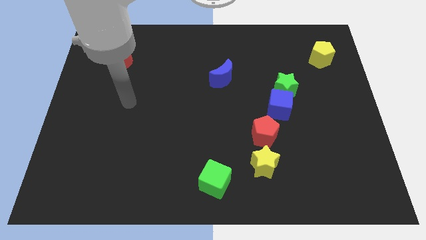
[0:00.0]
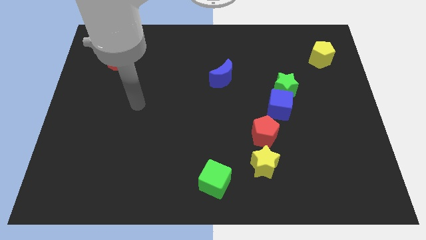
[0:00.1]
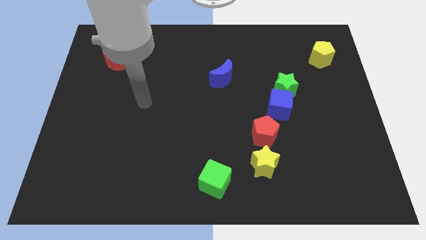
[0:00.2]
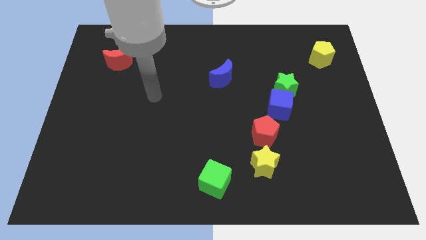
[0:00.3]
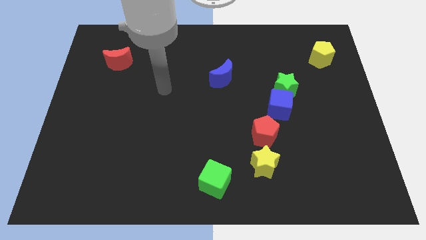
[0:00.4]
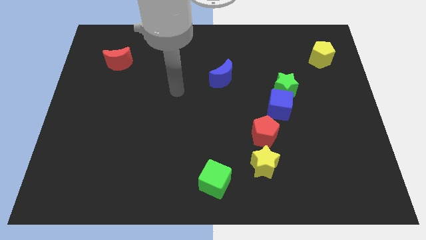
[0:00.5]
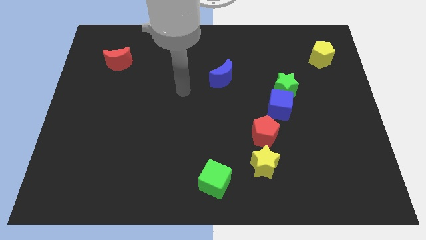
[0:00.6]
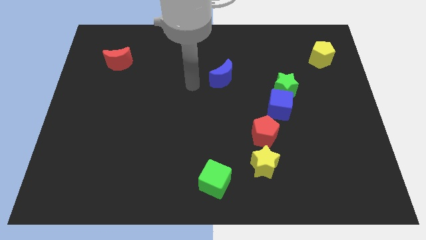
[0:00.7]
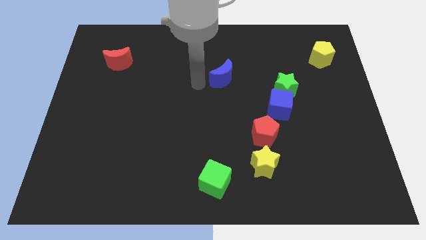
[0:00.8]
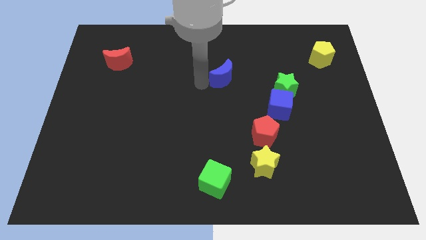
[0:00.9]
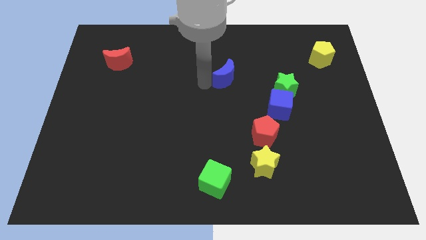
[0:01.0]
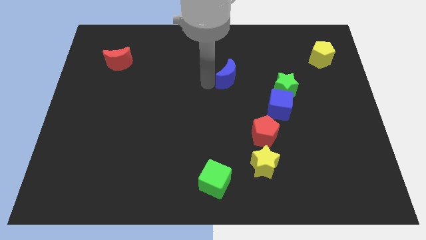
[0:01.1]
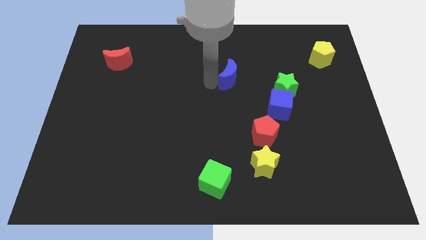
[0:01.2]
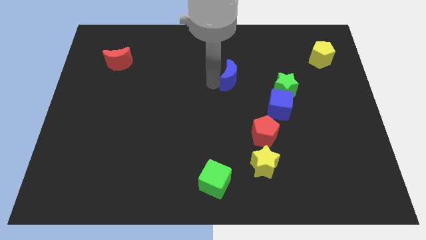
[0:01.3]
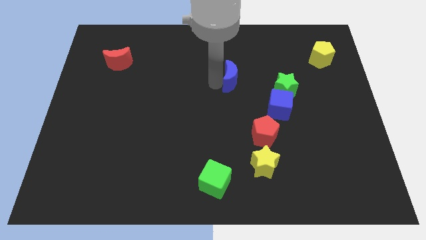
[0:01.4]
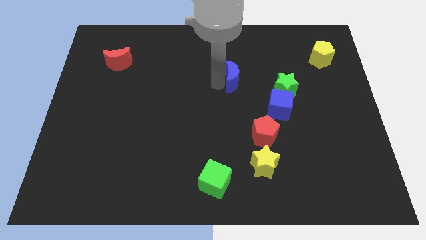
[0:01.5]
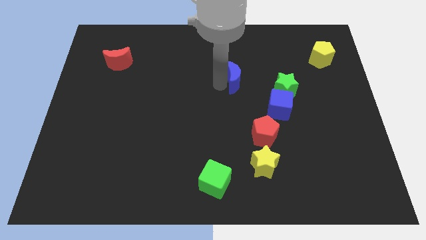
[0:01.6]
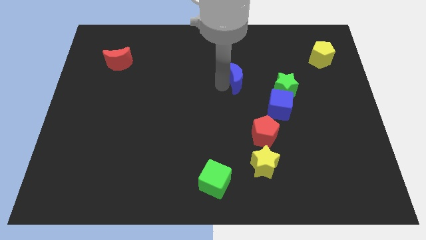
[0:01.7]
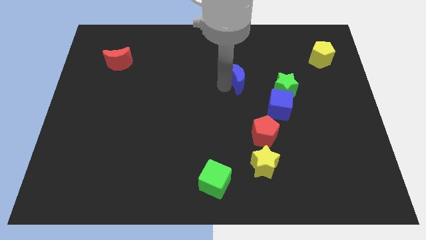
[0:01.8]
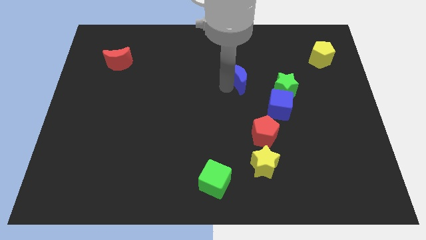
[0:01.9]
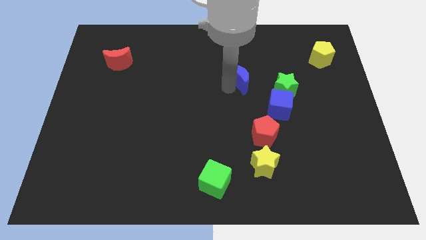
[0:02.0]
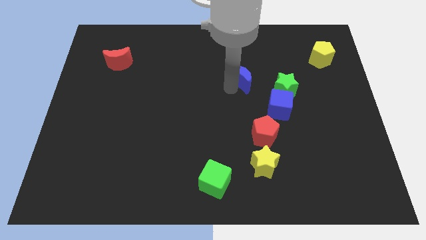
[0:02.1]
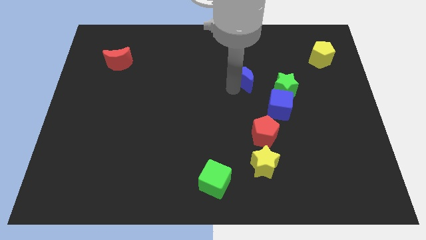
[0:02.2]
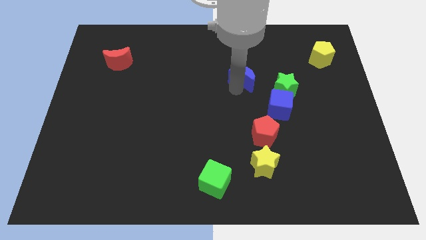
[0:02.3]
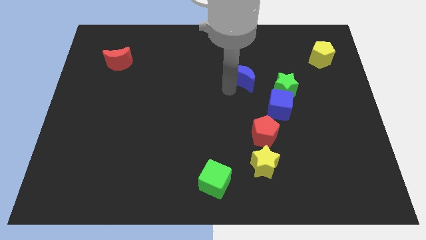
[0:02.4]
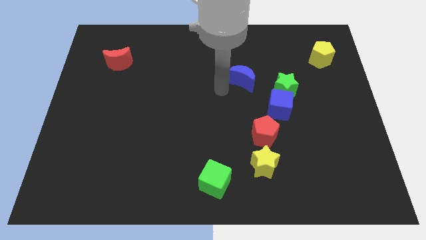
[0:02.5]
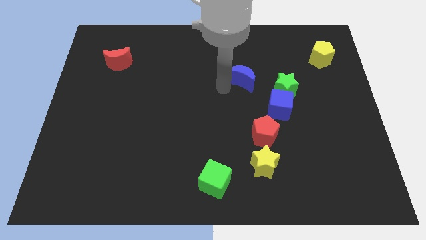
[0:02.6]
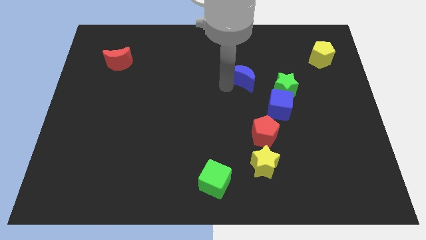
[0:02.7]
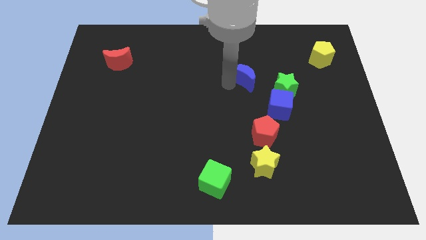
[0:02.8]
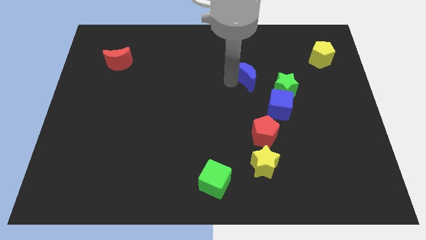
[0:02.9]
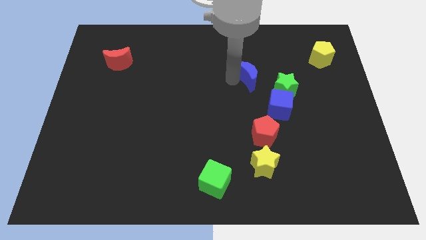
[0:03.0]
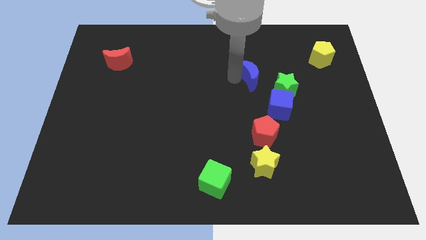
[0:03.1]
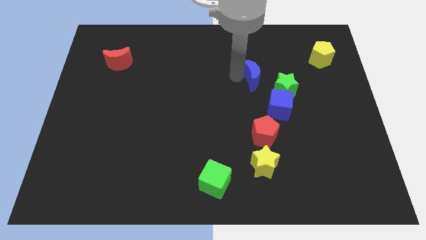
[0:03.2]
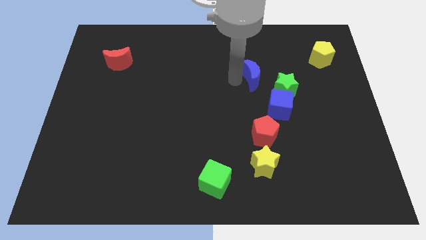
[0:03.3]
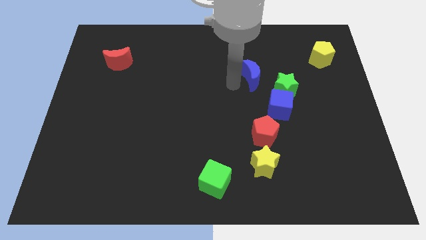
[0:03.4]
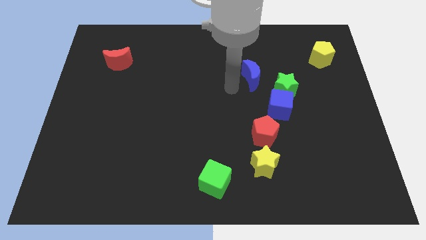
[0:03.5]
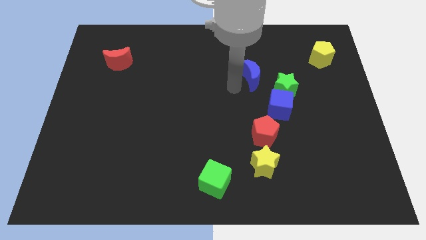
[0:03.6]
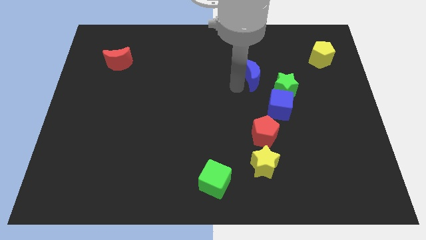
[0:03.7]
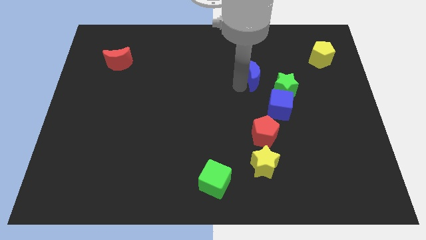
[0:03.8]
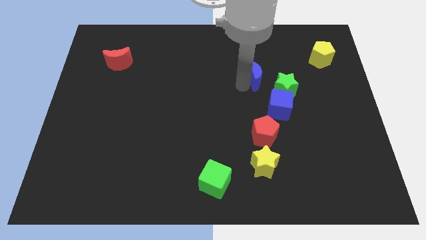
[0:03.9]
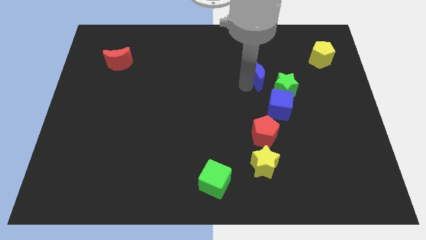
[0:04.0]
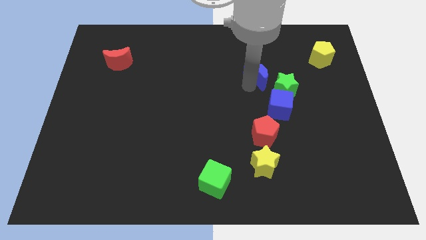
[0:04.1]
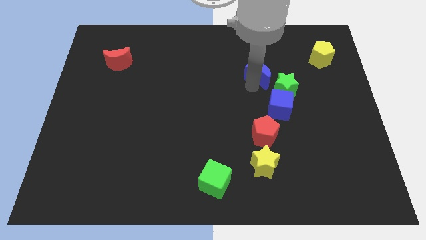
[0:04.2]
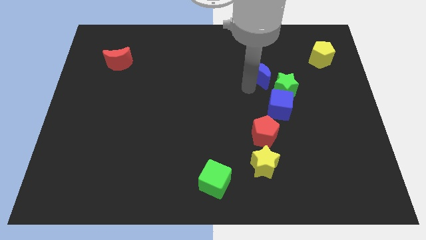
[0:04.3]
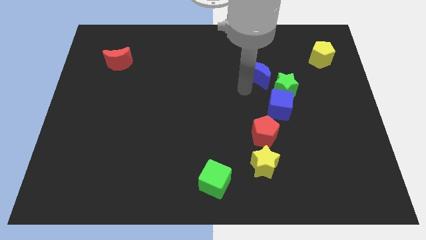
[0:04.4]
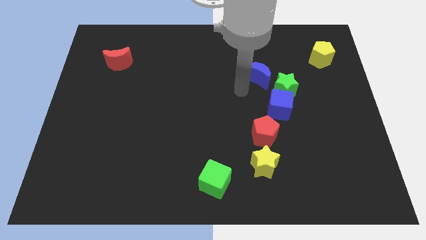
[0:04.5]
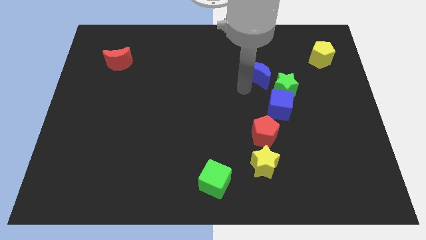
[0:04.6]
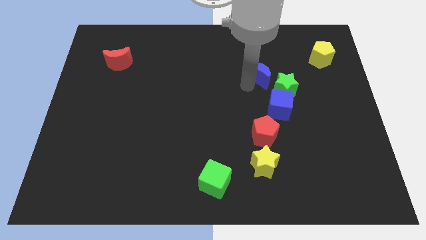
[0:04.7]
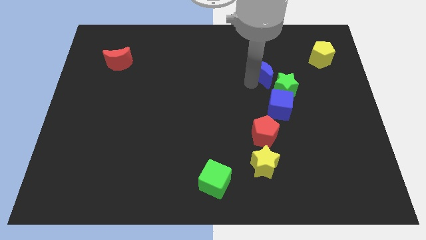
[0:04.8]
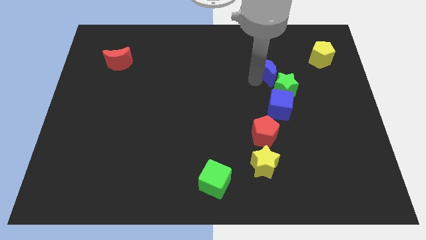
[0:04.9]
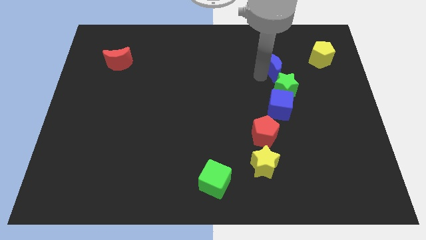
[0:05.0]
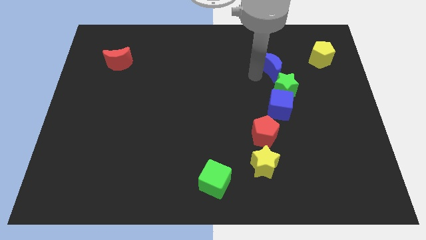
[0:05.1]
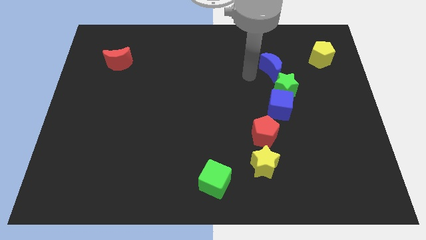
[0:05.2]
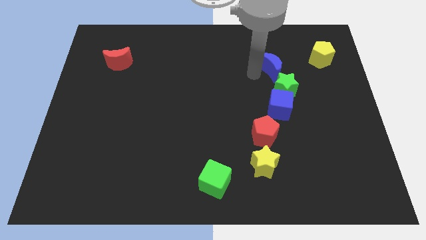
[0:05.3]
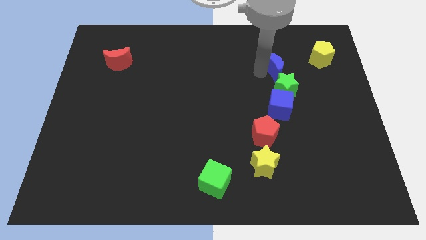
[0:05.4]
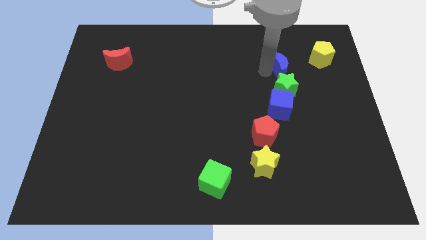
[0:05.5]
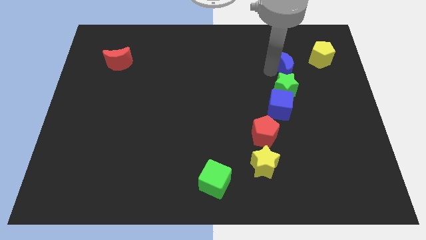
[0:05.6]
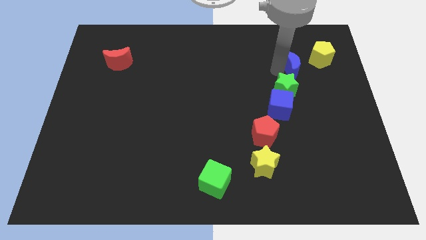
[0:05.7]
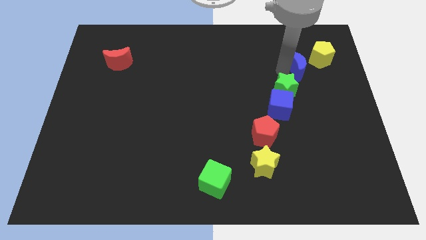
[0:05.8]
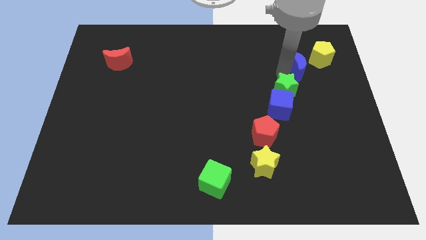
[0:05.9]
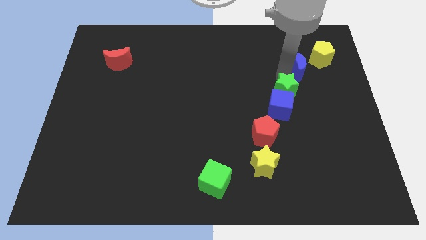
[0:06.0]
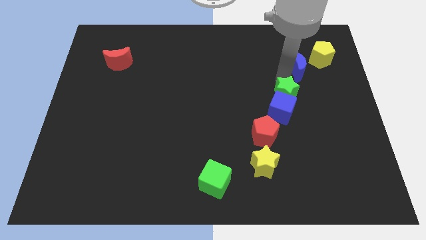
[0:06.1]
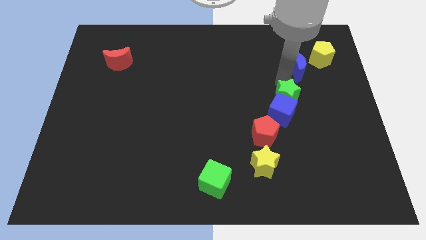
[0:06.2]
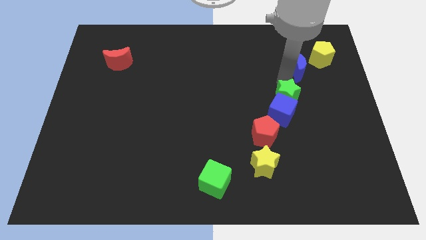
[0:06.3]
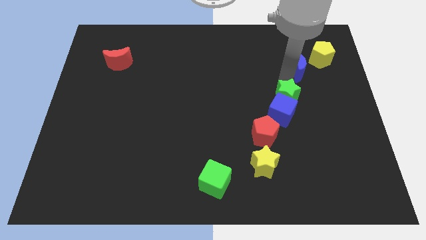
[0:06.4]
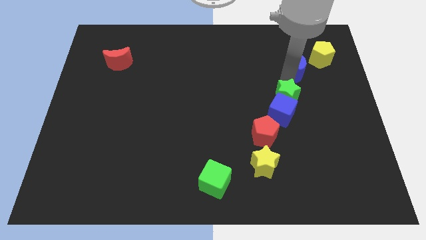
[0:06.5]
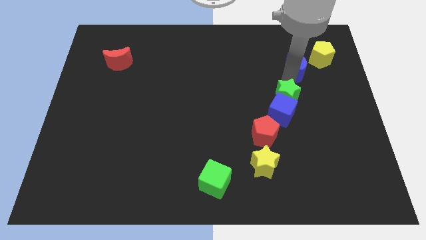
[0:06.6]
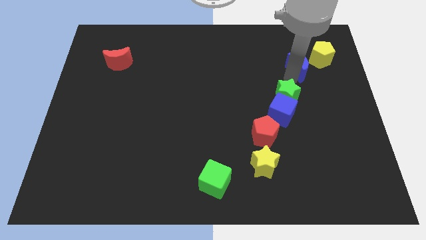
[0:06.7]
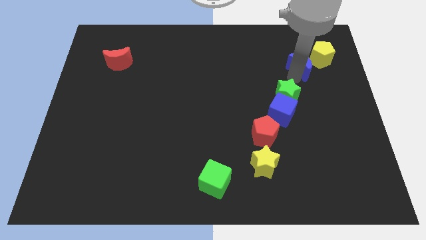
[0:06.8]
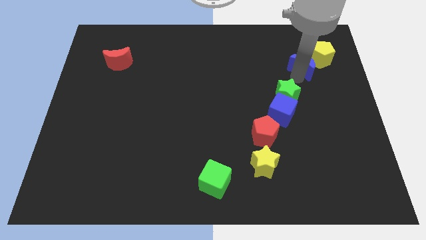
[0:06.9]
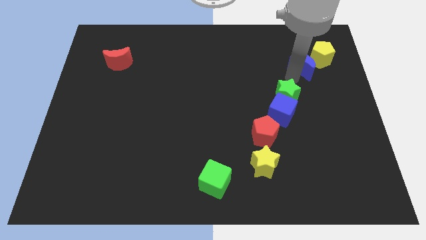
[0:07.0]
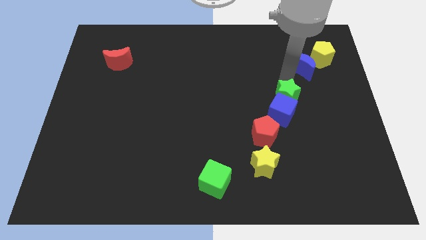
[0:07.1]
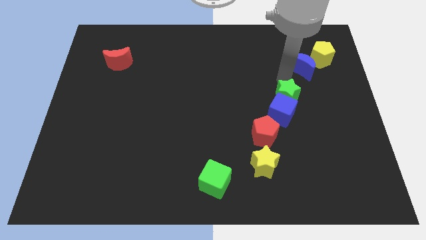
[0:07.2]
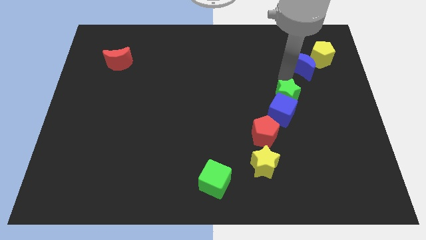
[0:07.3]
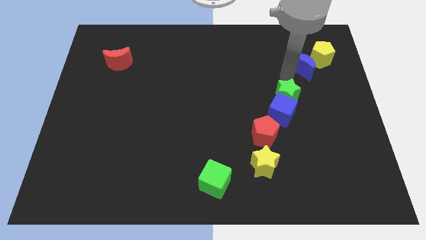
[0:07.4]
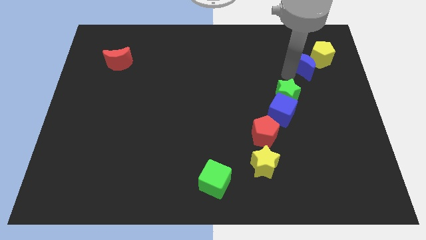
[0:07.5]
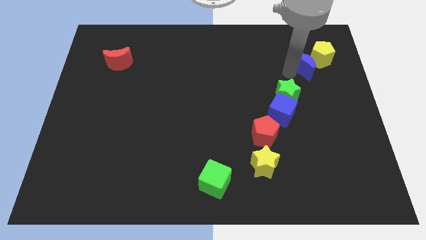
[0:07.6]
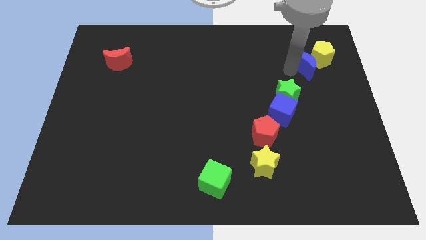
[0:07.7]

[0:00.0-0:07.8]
put the blue moon next to the yellow pentagon
